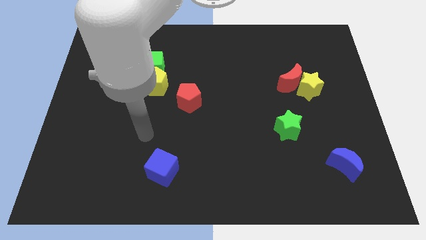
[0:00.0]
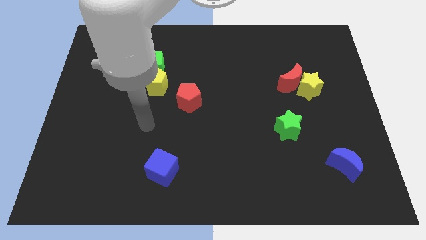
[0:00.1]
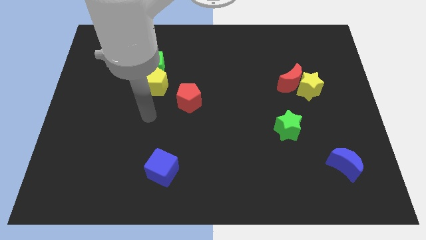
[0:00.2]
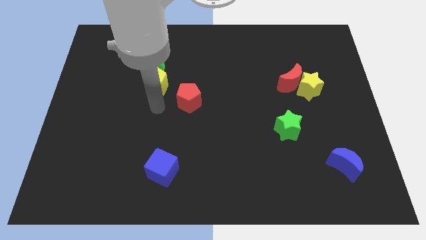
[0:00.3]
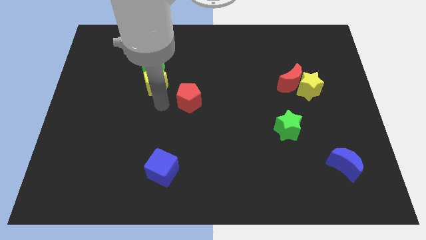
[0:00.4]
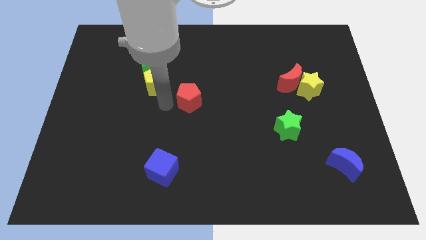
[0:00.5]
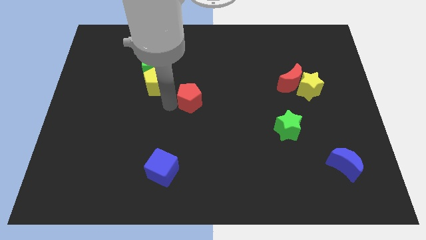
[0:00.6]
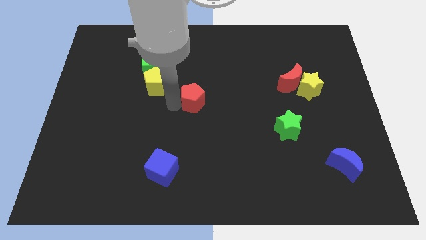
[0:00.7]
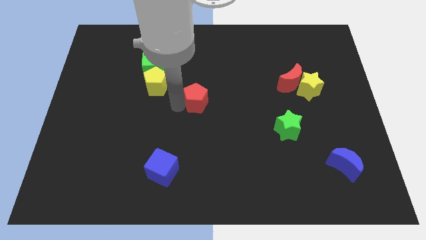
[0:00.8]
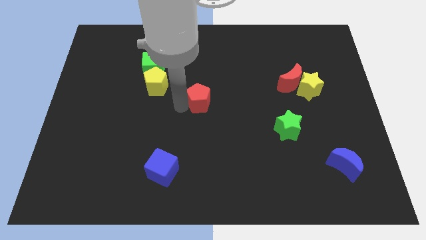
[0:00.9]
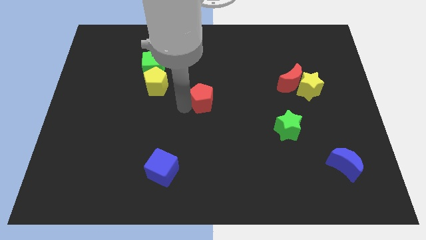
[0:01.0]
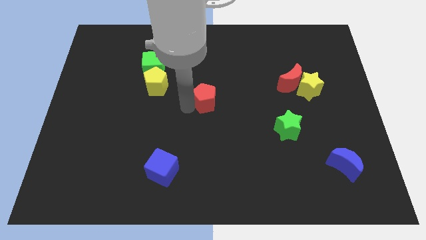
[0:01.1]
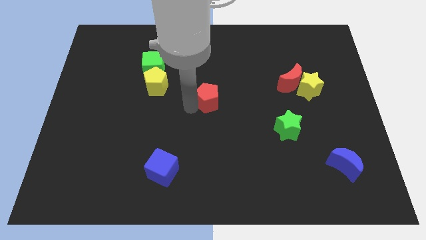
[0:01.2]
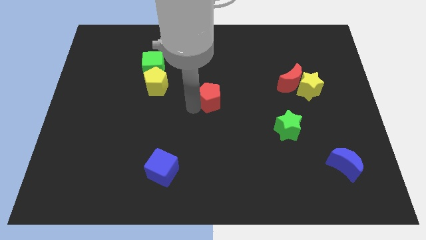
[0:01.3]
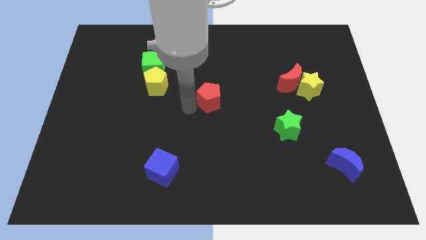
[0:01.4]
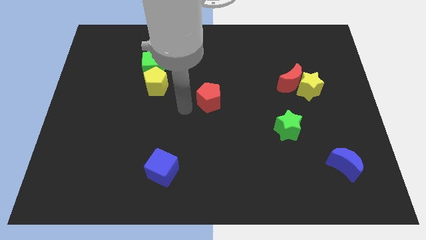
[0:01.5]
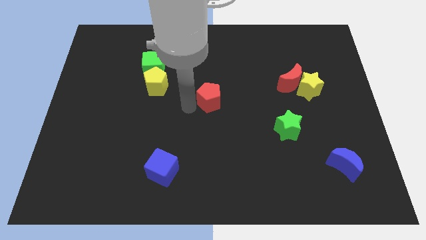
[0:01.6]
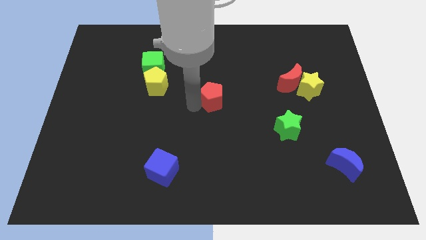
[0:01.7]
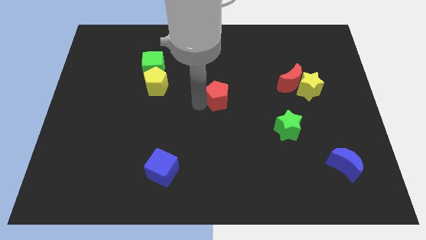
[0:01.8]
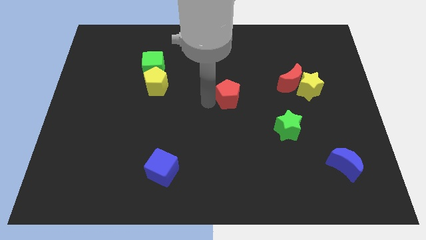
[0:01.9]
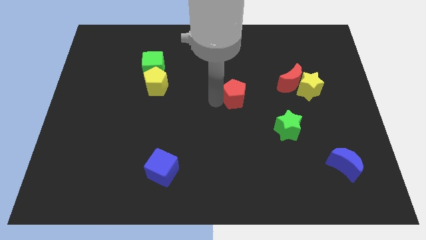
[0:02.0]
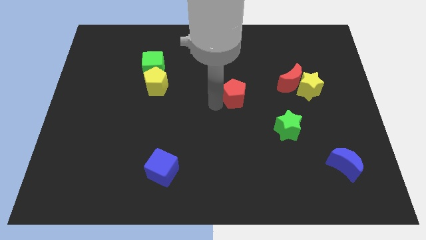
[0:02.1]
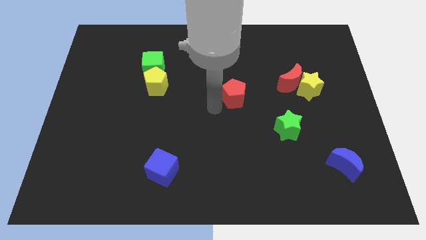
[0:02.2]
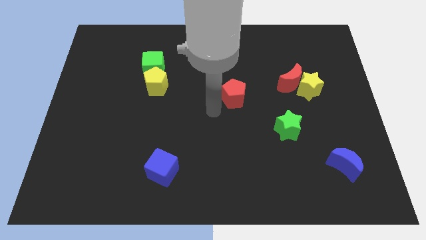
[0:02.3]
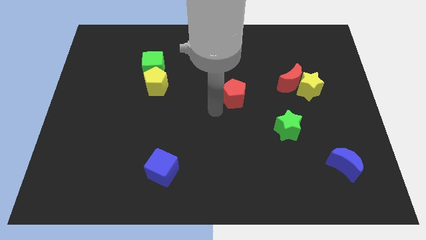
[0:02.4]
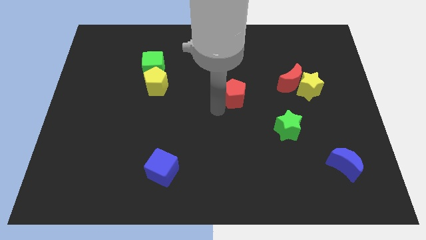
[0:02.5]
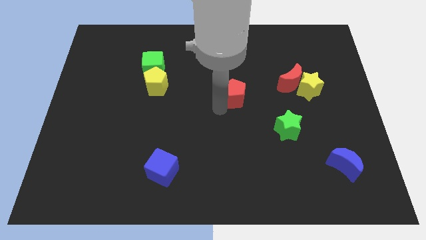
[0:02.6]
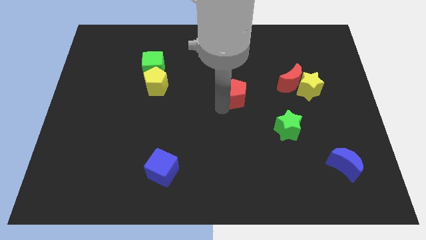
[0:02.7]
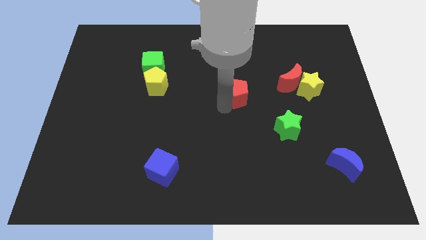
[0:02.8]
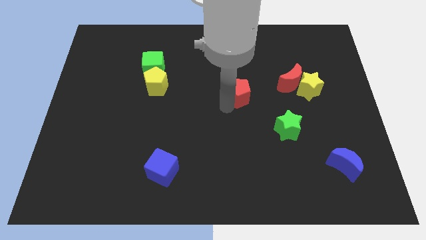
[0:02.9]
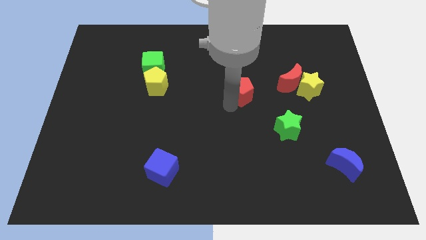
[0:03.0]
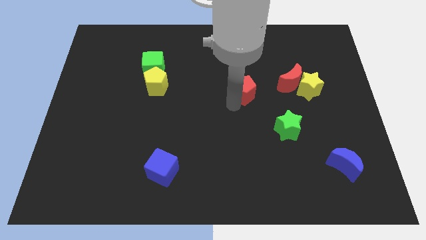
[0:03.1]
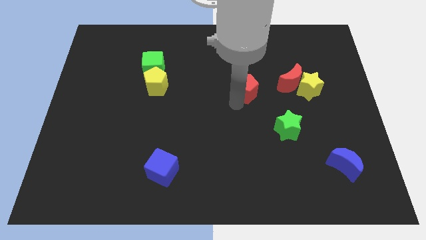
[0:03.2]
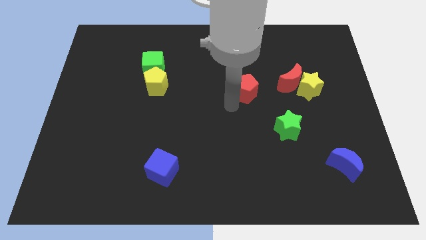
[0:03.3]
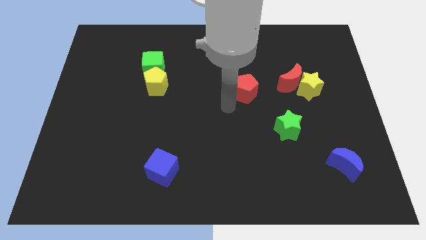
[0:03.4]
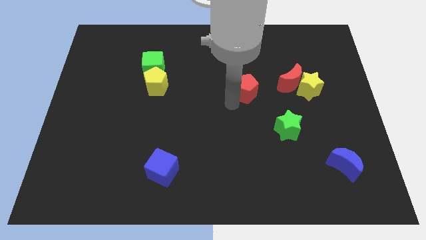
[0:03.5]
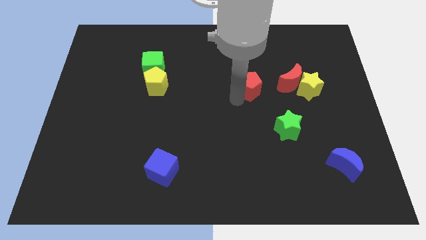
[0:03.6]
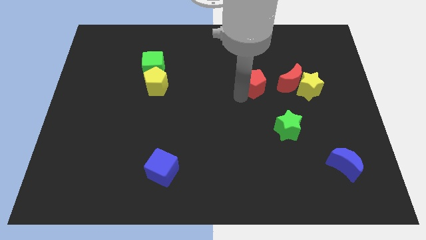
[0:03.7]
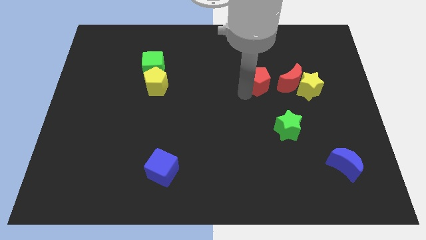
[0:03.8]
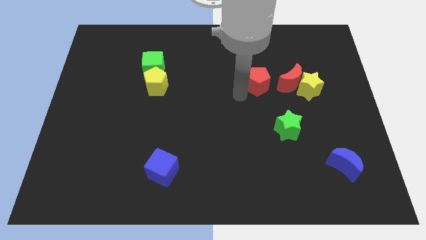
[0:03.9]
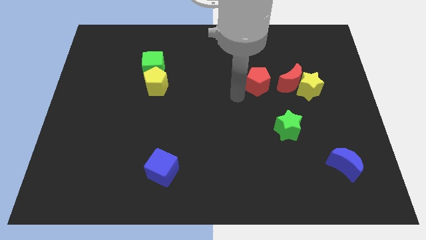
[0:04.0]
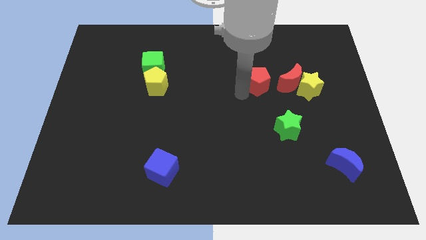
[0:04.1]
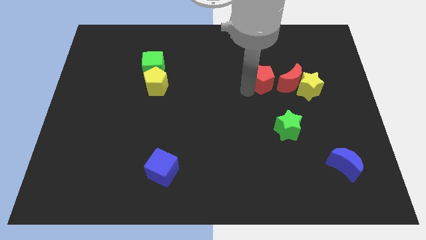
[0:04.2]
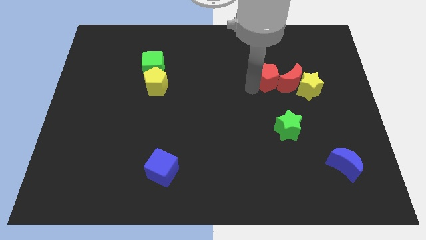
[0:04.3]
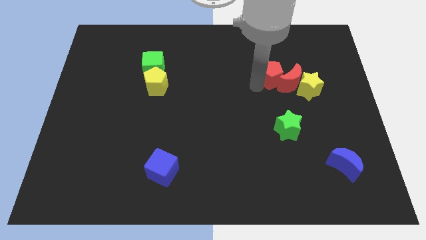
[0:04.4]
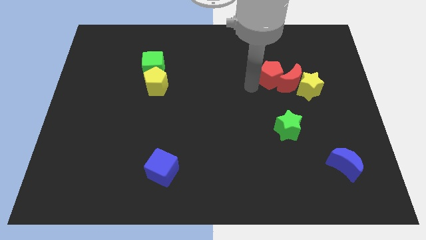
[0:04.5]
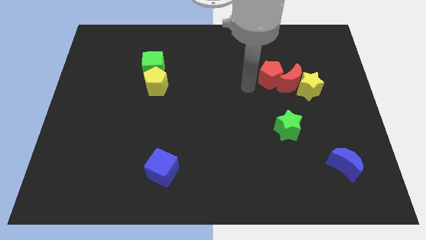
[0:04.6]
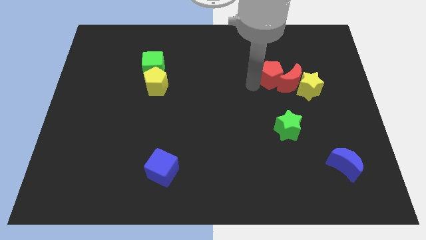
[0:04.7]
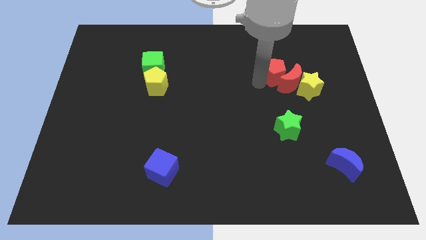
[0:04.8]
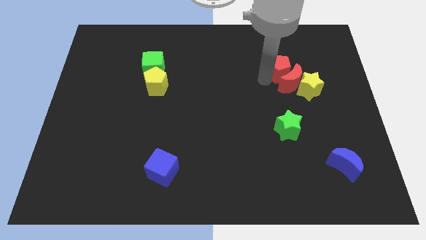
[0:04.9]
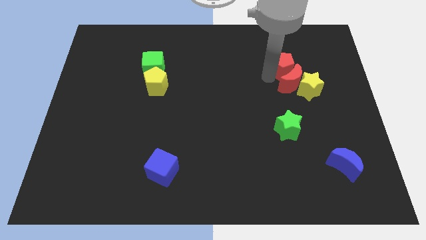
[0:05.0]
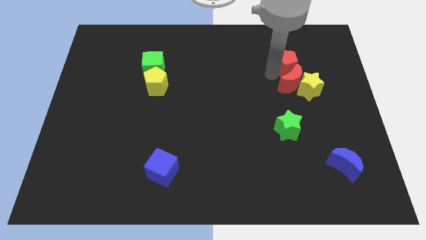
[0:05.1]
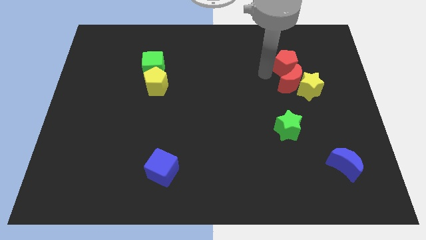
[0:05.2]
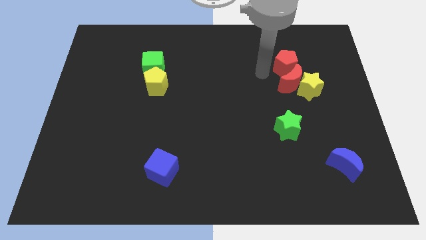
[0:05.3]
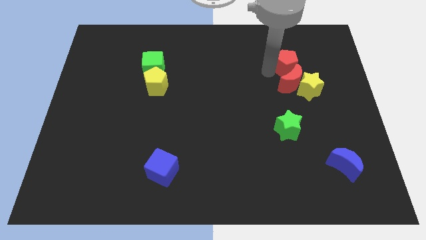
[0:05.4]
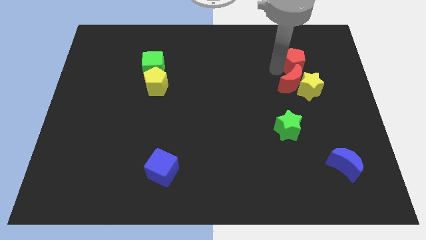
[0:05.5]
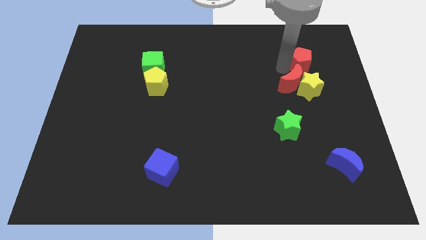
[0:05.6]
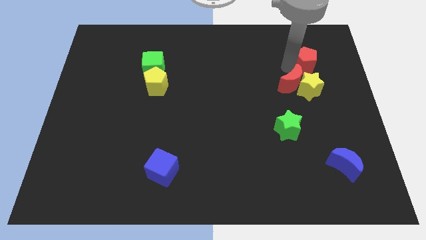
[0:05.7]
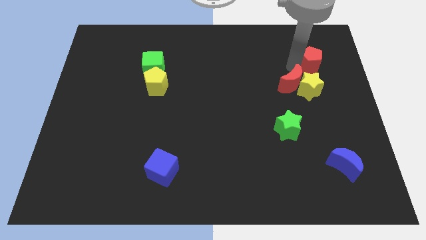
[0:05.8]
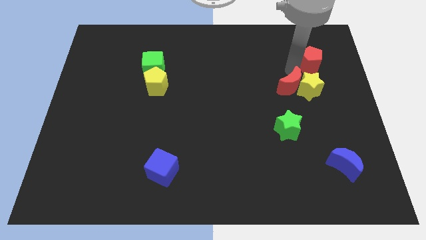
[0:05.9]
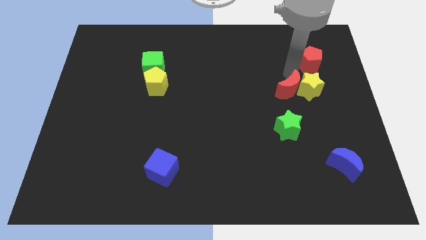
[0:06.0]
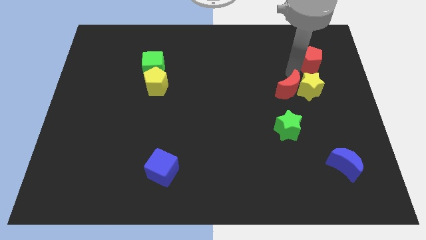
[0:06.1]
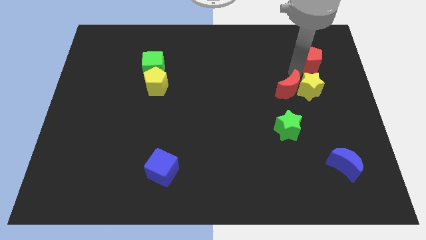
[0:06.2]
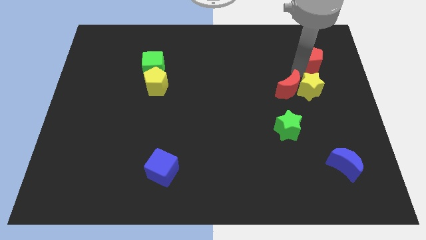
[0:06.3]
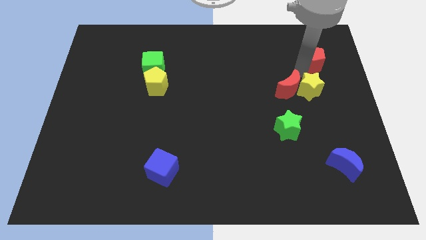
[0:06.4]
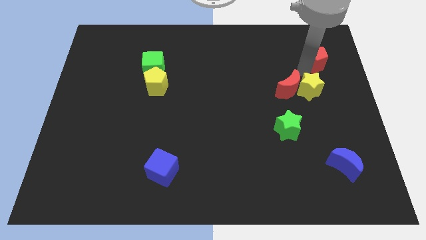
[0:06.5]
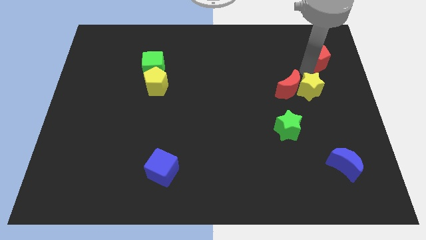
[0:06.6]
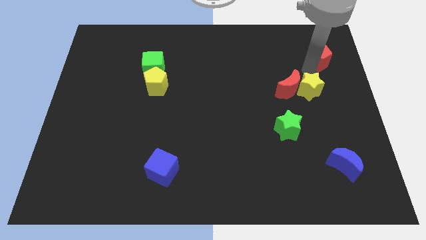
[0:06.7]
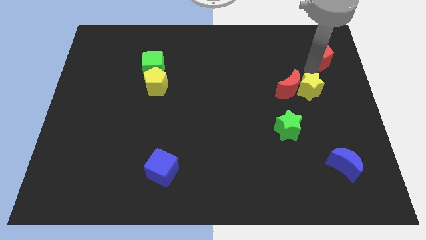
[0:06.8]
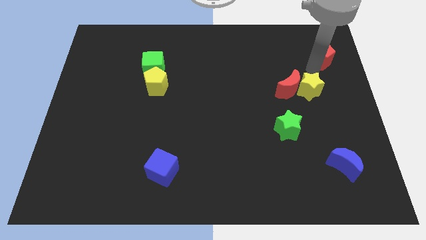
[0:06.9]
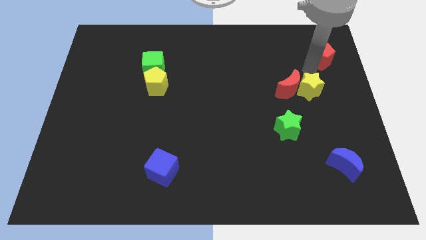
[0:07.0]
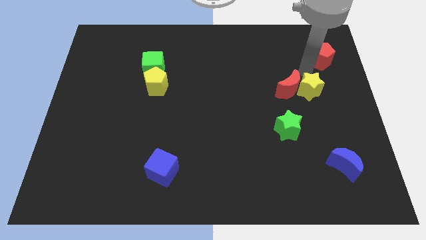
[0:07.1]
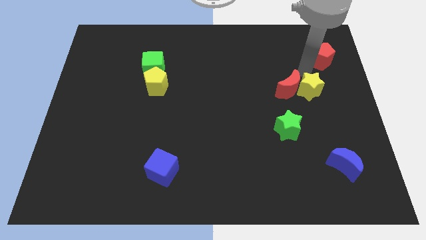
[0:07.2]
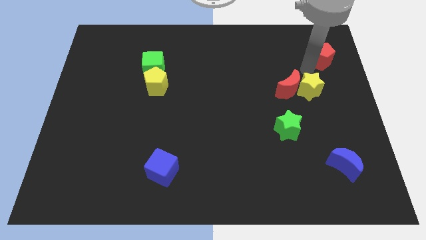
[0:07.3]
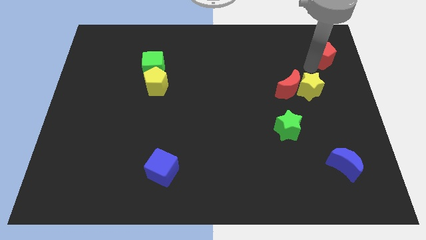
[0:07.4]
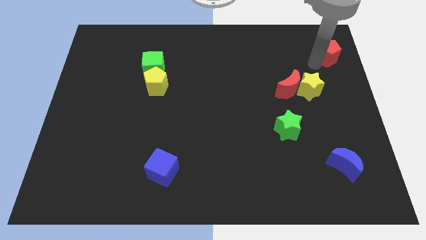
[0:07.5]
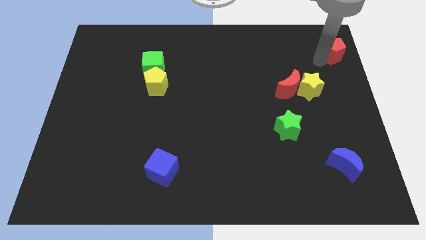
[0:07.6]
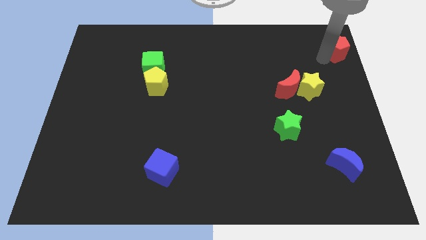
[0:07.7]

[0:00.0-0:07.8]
push the red pentagon to the upper right corner
